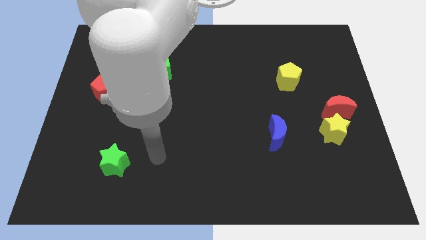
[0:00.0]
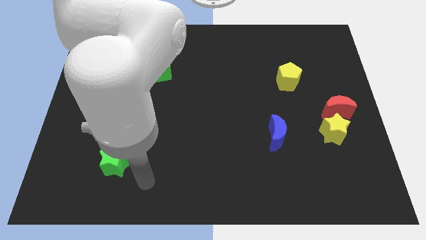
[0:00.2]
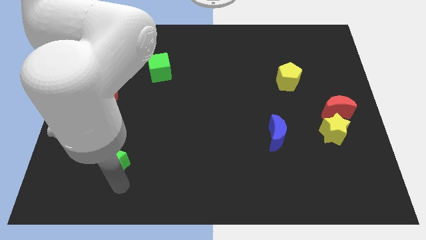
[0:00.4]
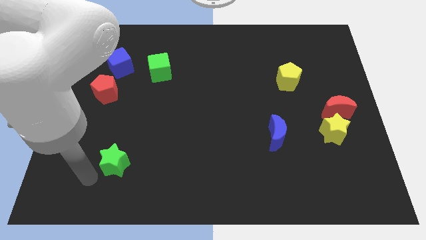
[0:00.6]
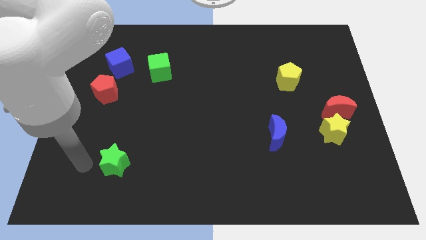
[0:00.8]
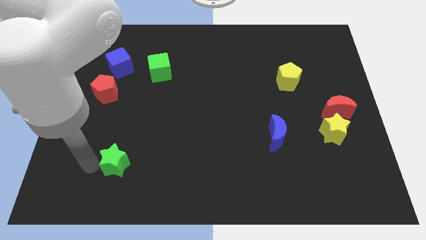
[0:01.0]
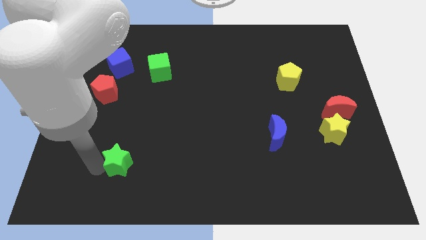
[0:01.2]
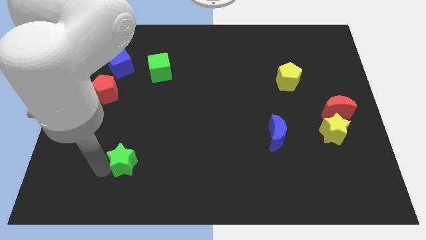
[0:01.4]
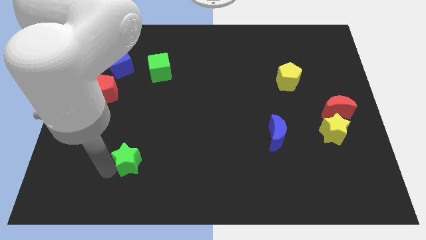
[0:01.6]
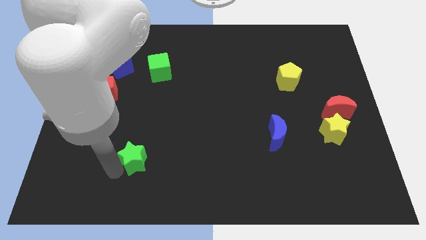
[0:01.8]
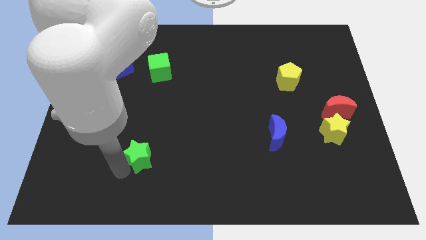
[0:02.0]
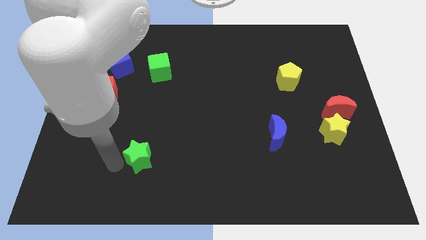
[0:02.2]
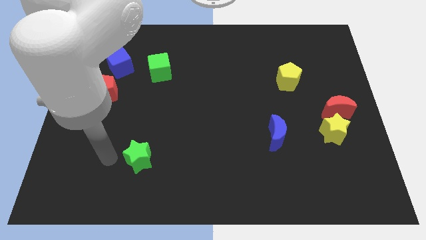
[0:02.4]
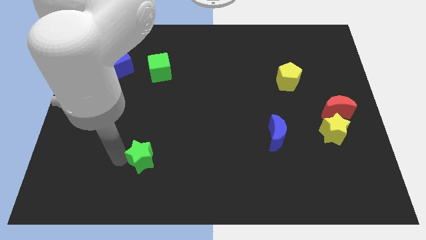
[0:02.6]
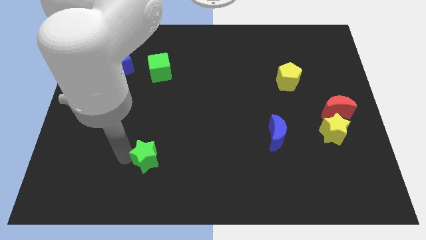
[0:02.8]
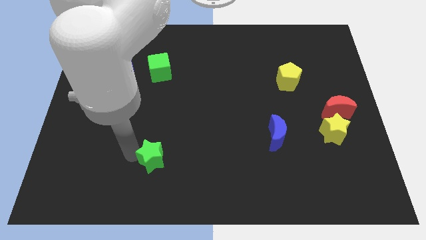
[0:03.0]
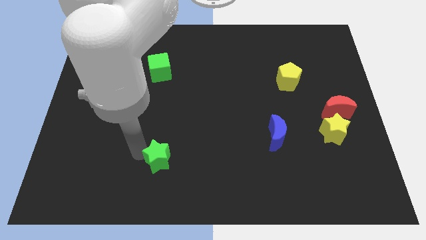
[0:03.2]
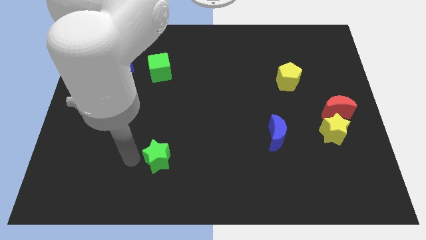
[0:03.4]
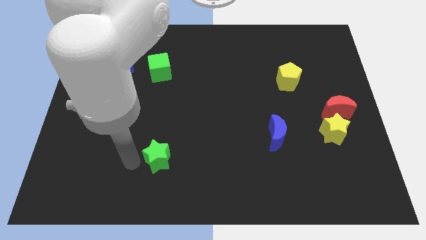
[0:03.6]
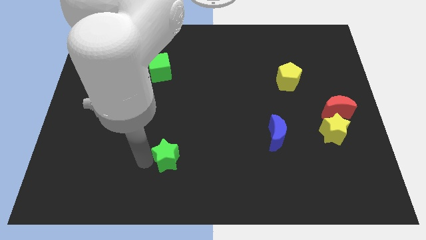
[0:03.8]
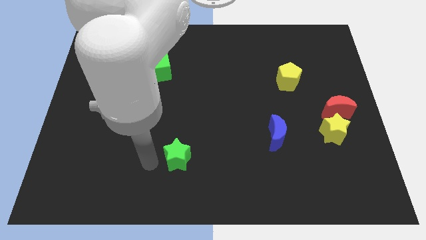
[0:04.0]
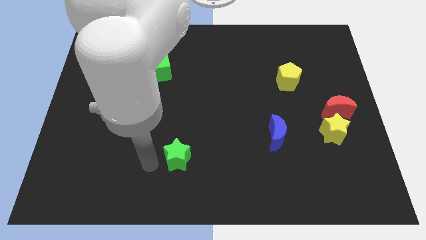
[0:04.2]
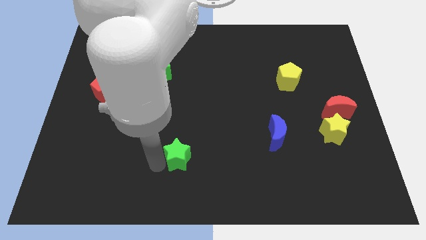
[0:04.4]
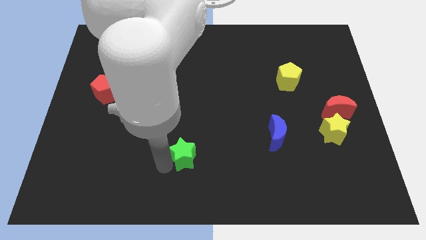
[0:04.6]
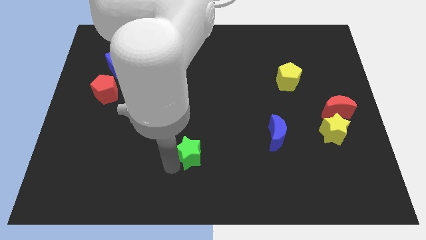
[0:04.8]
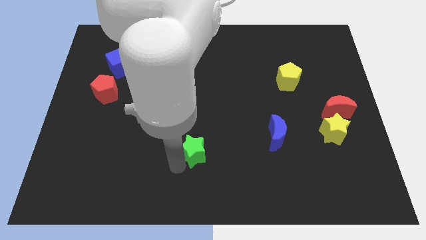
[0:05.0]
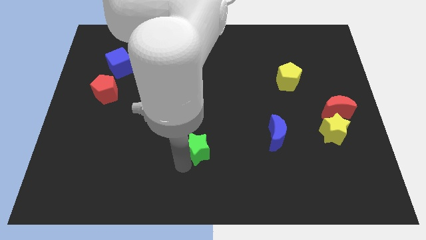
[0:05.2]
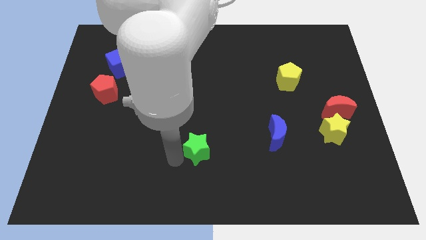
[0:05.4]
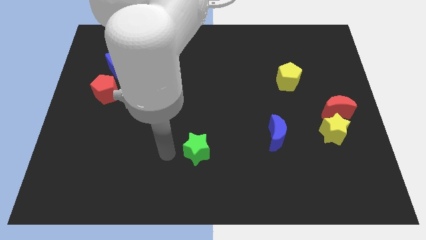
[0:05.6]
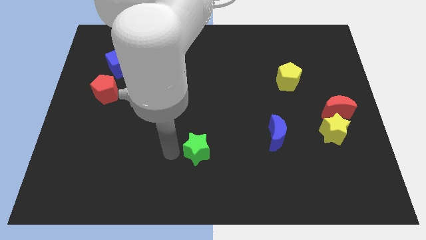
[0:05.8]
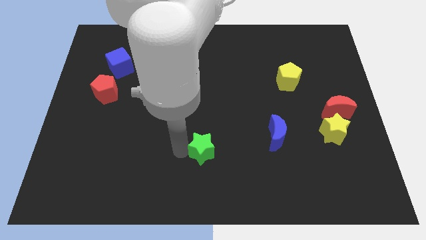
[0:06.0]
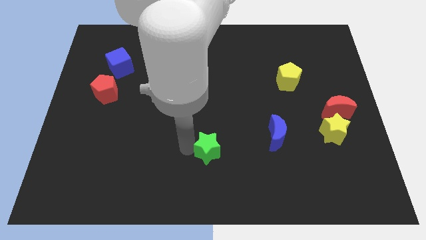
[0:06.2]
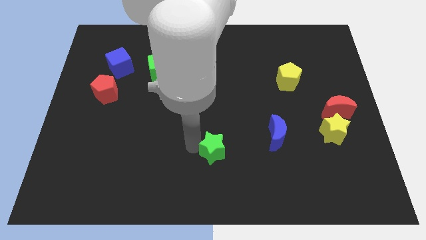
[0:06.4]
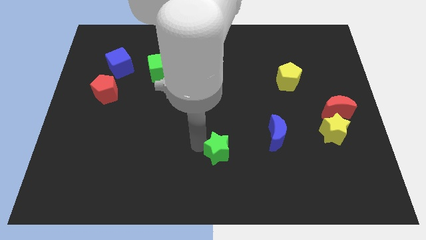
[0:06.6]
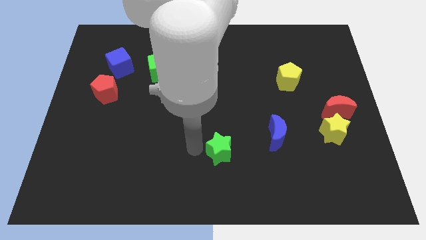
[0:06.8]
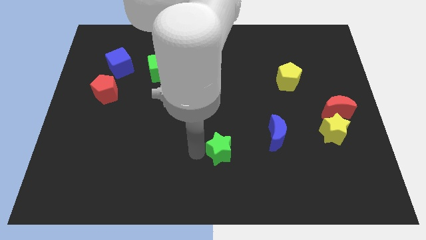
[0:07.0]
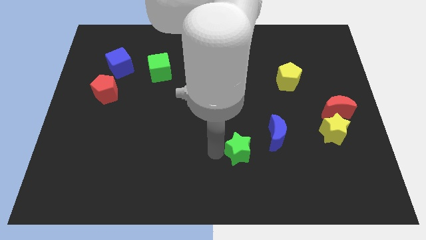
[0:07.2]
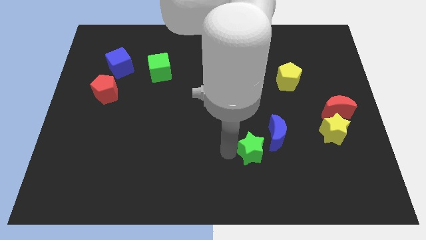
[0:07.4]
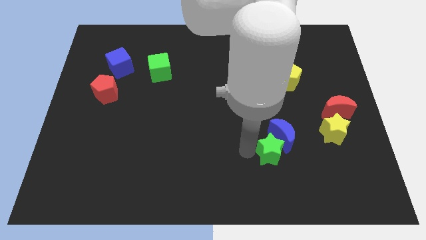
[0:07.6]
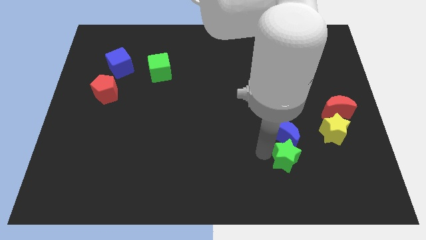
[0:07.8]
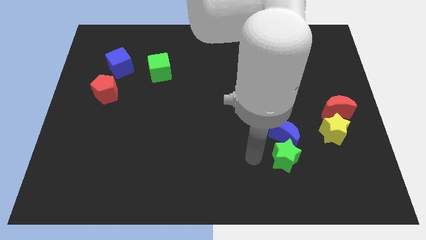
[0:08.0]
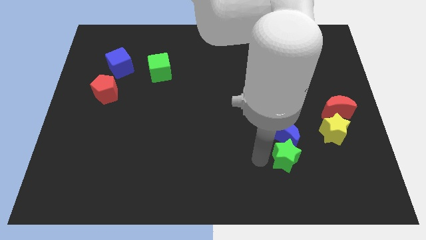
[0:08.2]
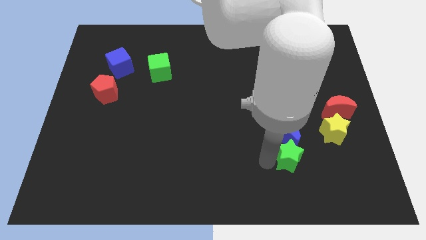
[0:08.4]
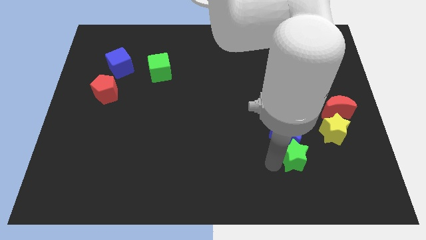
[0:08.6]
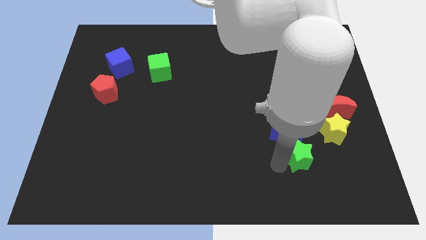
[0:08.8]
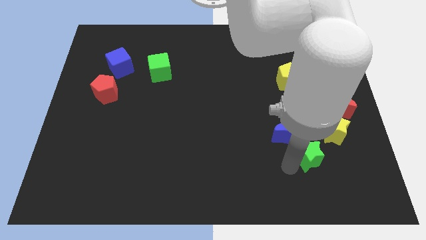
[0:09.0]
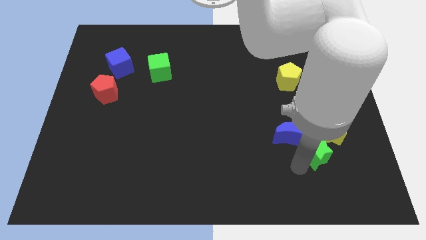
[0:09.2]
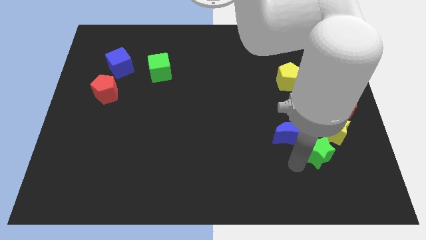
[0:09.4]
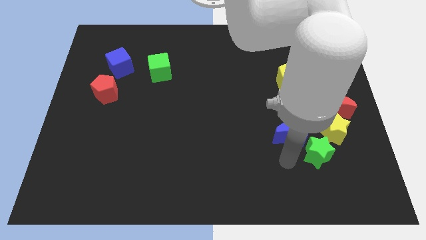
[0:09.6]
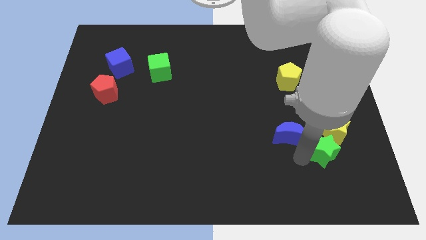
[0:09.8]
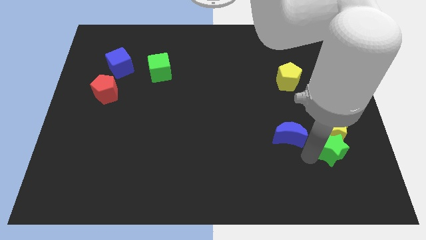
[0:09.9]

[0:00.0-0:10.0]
put the green star to the bottom side of the red moon

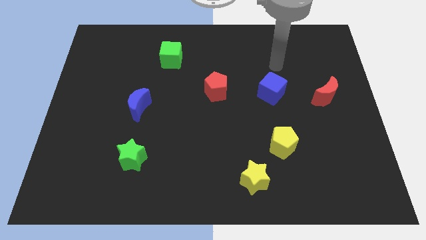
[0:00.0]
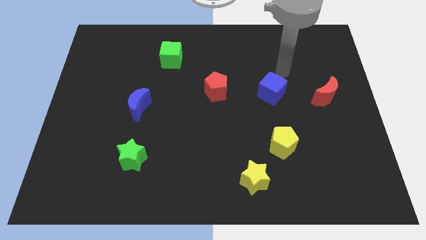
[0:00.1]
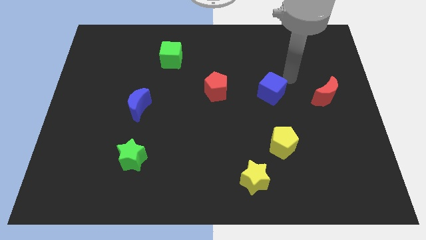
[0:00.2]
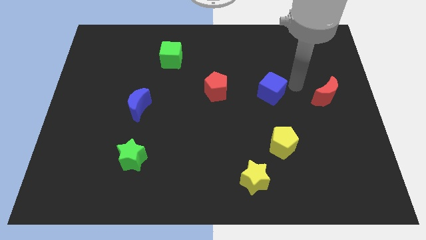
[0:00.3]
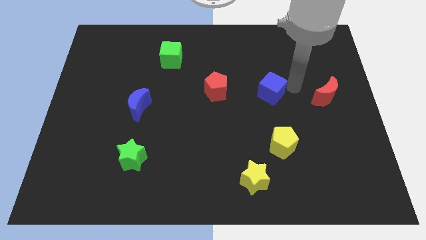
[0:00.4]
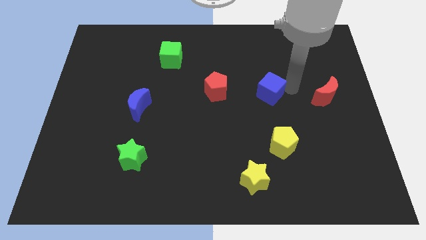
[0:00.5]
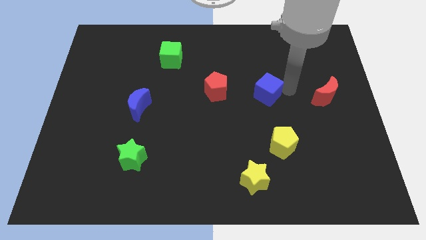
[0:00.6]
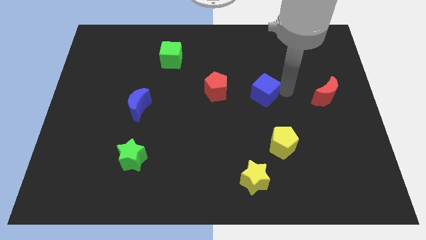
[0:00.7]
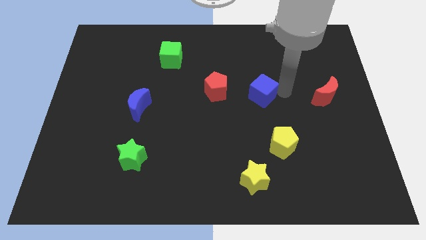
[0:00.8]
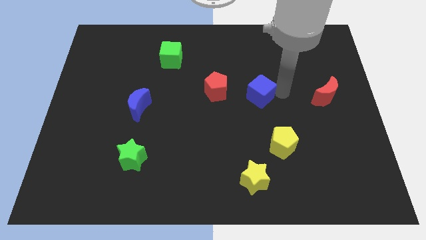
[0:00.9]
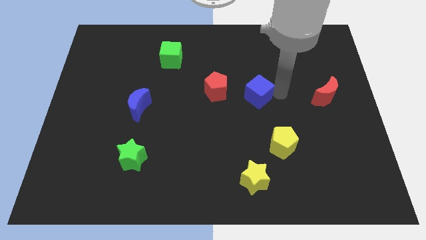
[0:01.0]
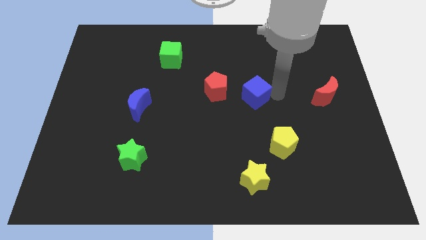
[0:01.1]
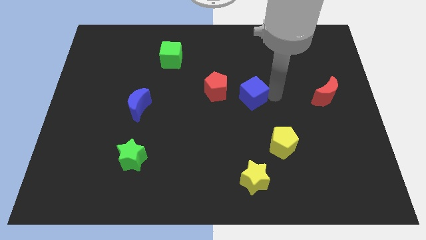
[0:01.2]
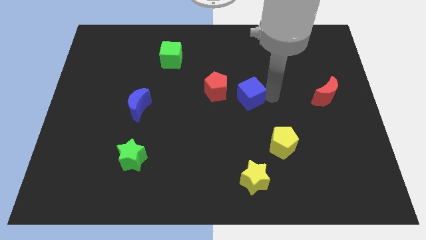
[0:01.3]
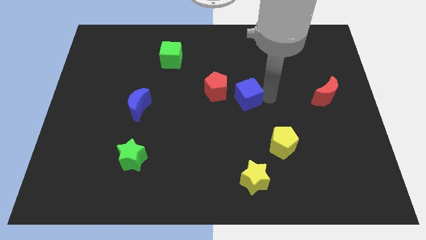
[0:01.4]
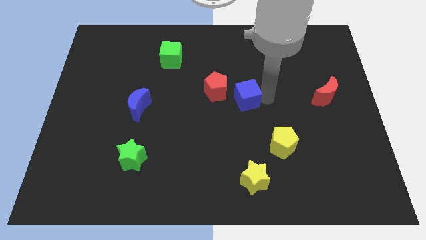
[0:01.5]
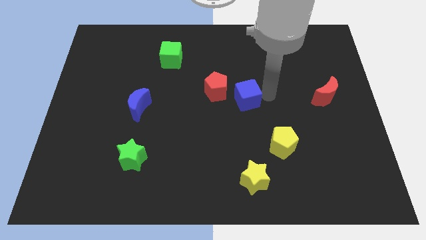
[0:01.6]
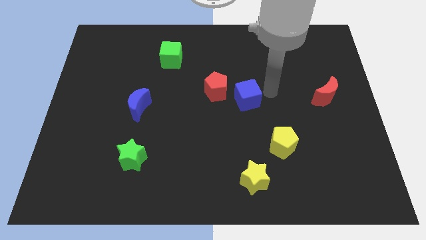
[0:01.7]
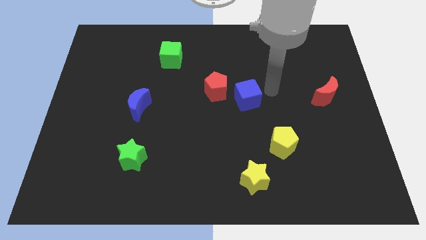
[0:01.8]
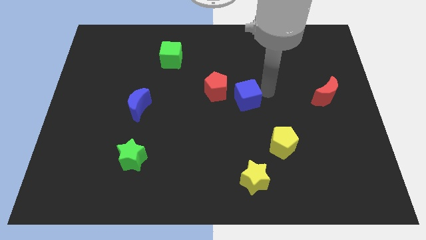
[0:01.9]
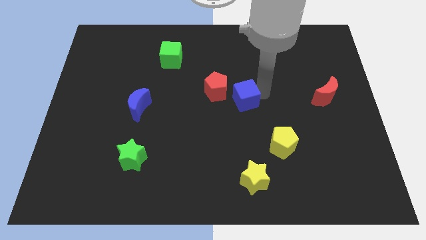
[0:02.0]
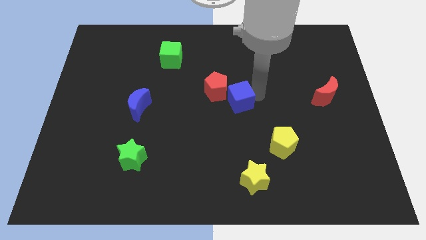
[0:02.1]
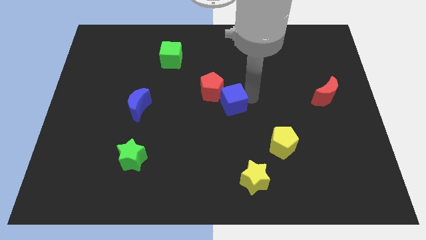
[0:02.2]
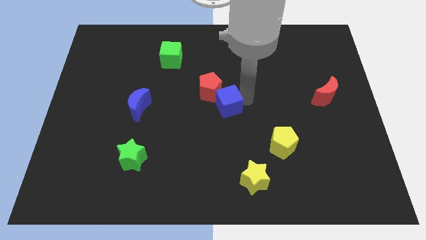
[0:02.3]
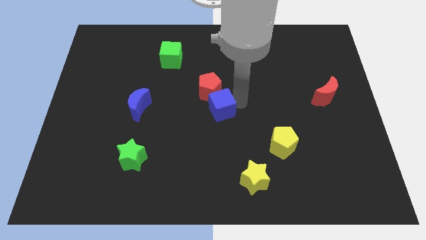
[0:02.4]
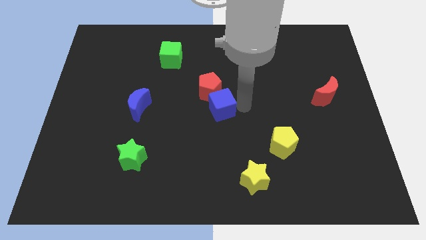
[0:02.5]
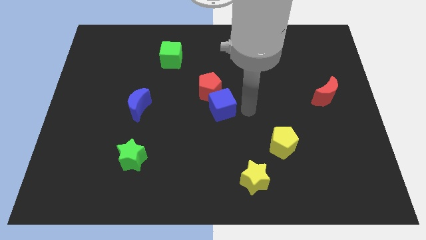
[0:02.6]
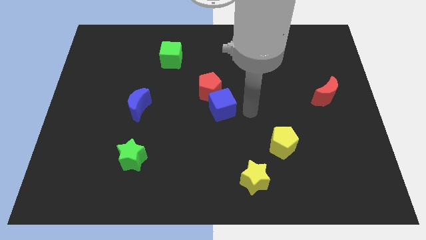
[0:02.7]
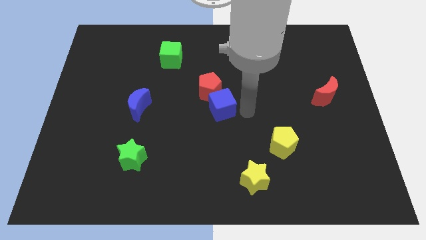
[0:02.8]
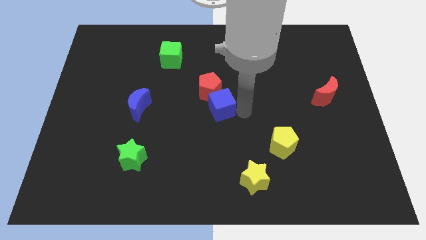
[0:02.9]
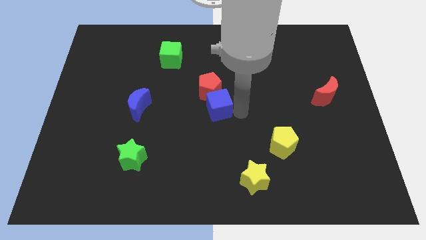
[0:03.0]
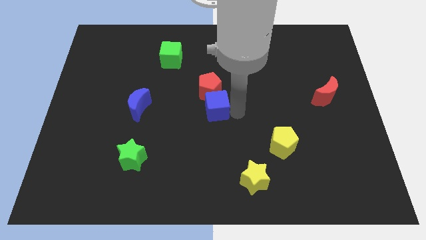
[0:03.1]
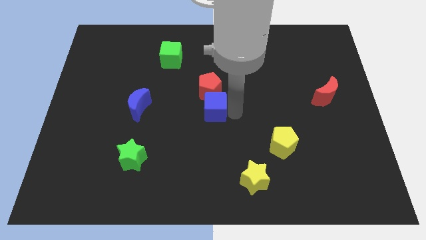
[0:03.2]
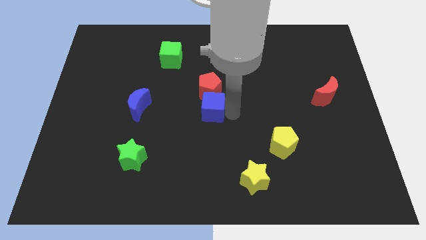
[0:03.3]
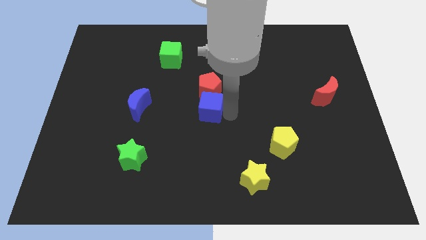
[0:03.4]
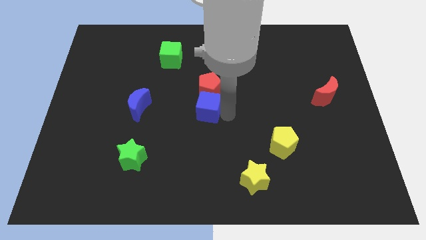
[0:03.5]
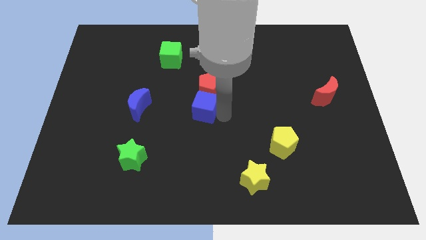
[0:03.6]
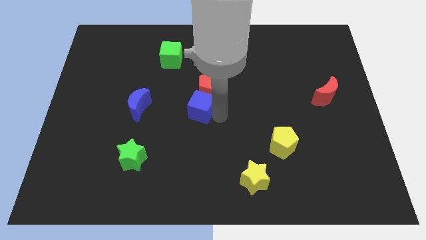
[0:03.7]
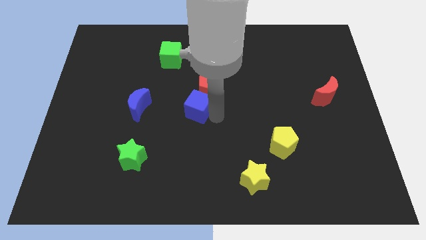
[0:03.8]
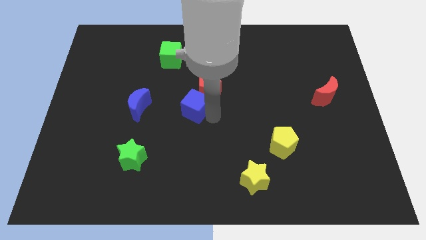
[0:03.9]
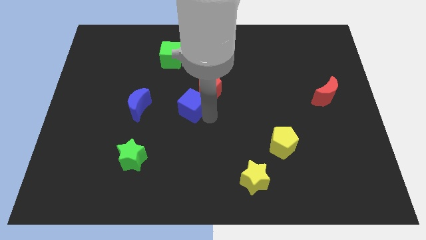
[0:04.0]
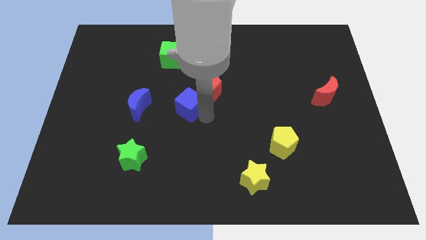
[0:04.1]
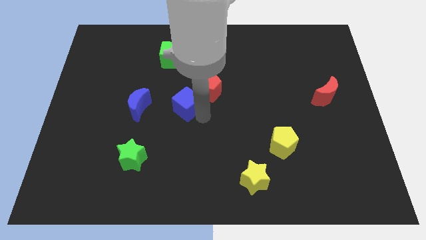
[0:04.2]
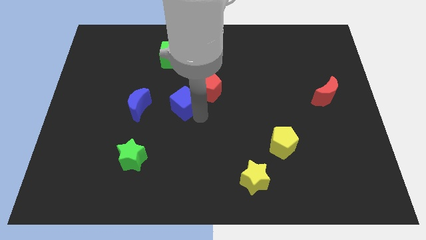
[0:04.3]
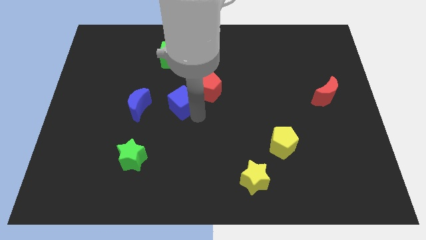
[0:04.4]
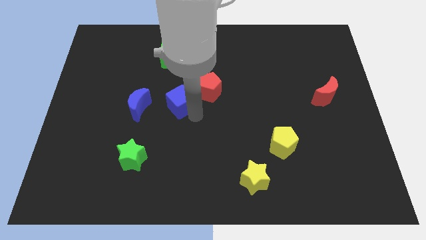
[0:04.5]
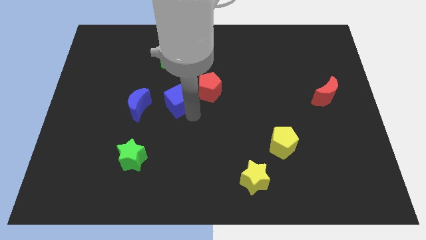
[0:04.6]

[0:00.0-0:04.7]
put the blue cube to the bottom side of the green cube
